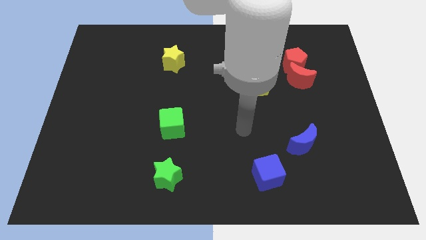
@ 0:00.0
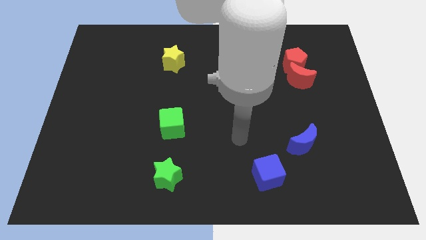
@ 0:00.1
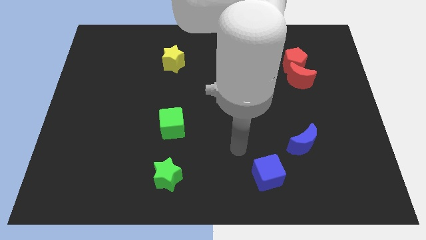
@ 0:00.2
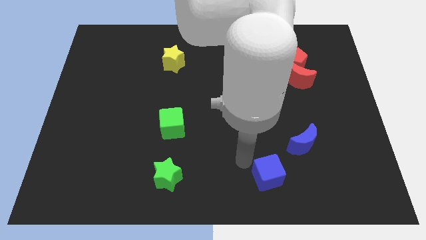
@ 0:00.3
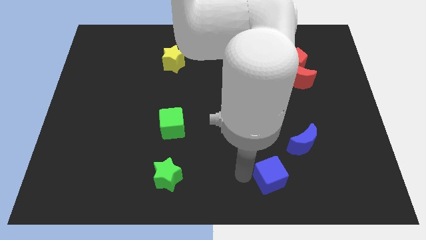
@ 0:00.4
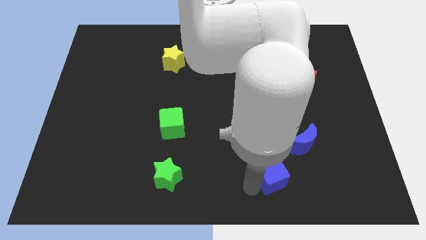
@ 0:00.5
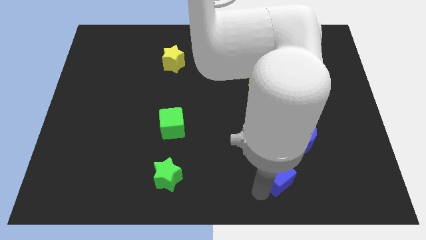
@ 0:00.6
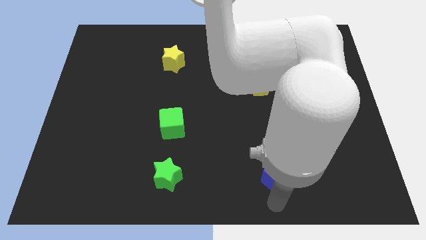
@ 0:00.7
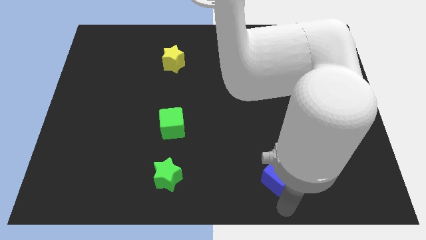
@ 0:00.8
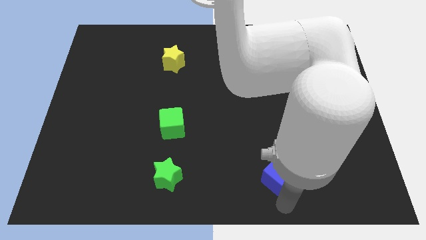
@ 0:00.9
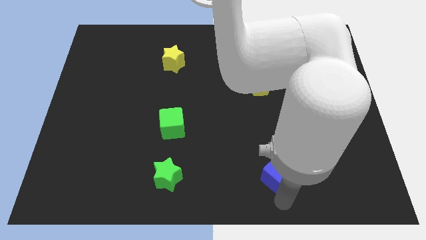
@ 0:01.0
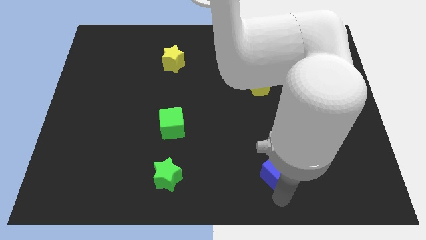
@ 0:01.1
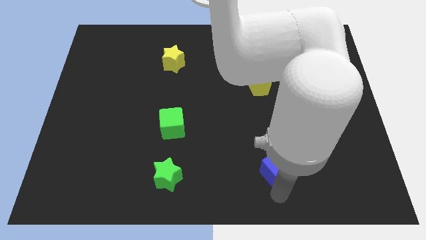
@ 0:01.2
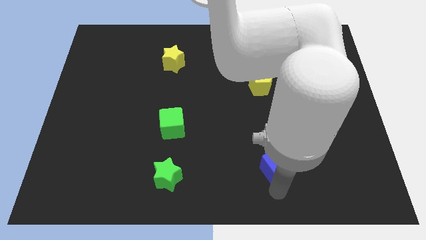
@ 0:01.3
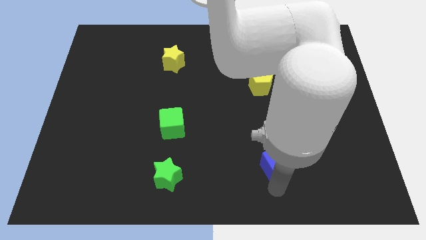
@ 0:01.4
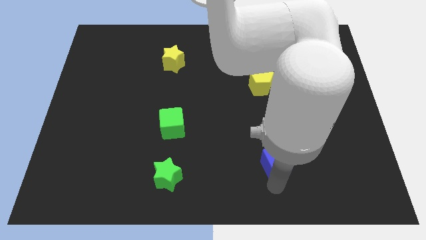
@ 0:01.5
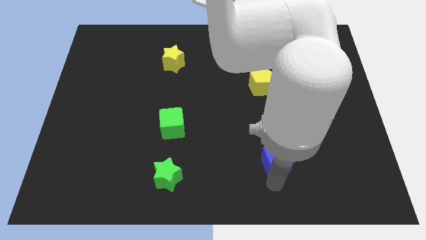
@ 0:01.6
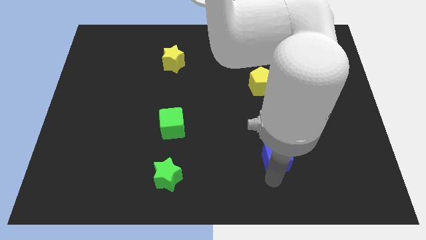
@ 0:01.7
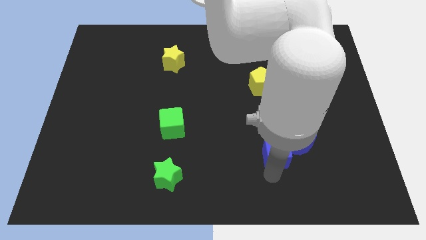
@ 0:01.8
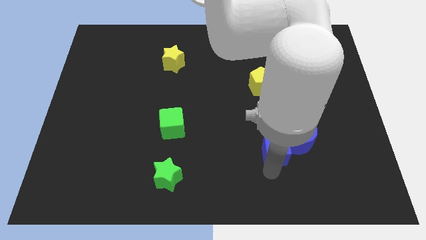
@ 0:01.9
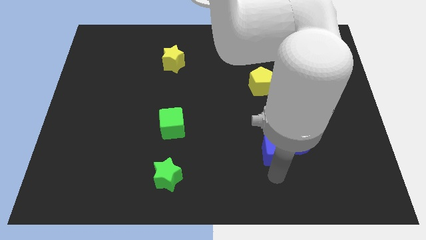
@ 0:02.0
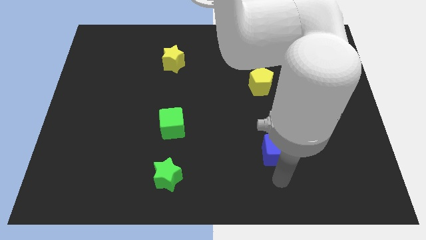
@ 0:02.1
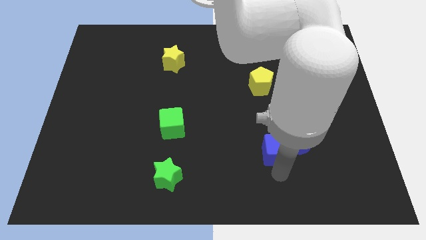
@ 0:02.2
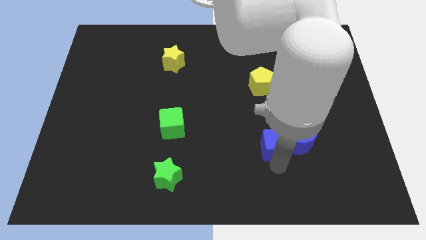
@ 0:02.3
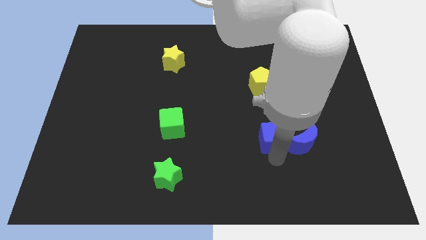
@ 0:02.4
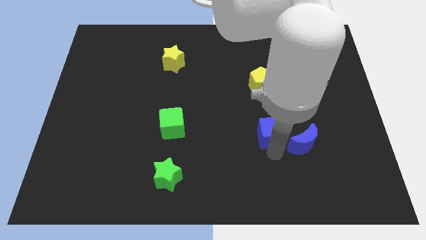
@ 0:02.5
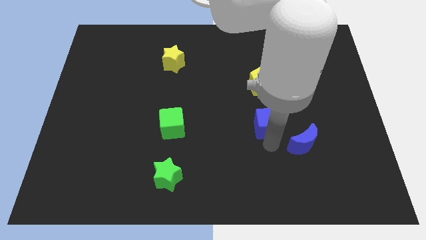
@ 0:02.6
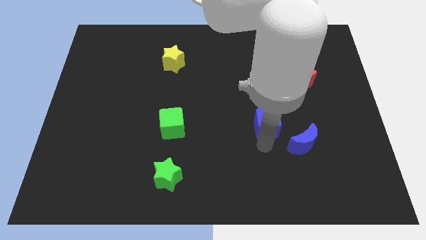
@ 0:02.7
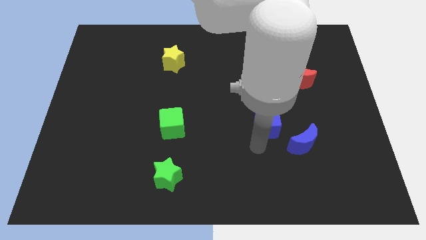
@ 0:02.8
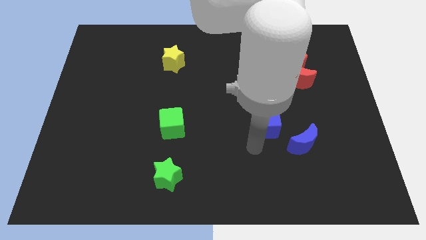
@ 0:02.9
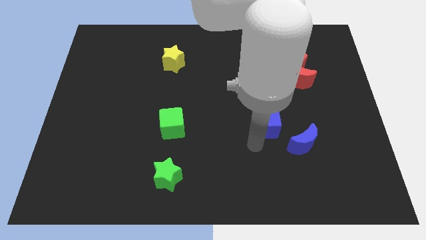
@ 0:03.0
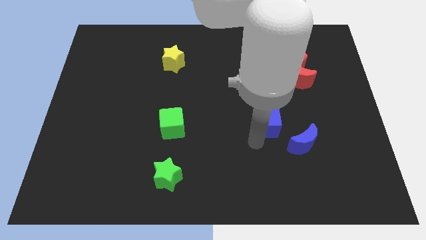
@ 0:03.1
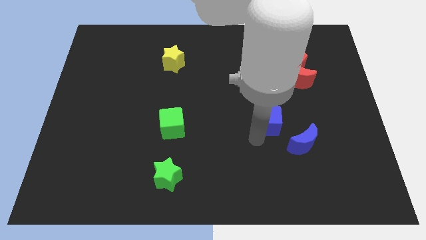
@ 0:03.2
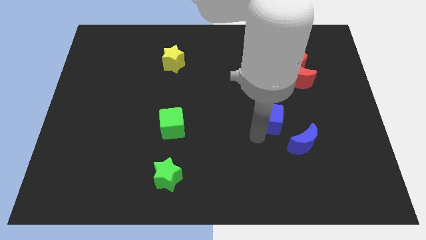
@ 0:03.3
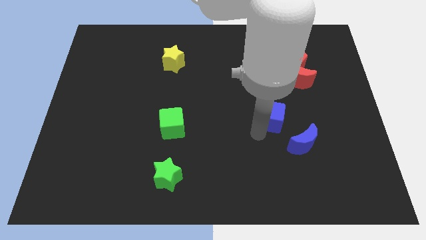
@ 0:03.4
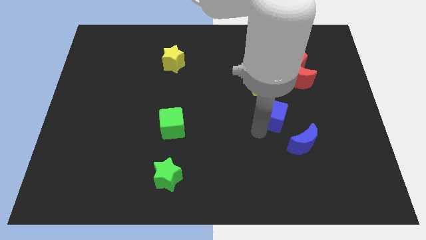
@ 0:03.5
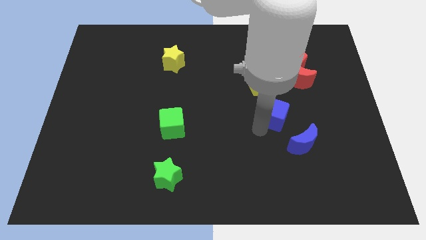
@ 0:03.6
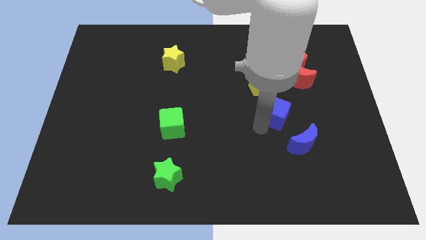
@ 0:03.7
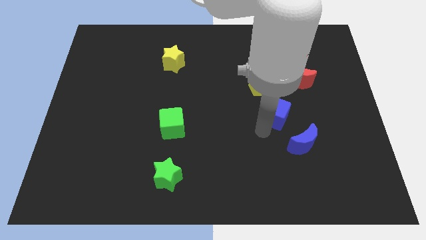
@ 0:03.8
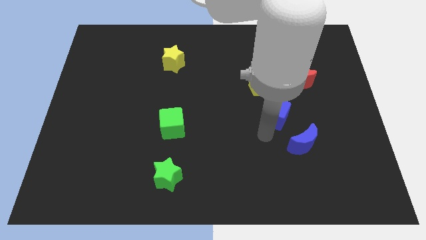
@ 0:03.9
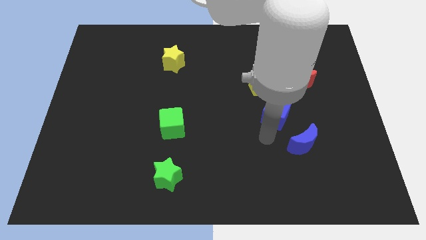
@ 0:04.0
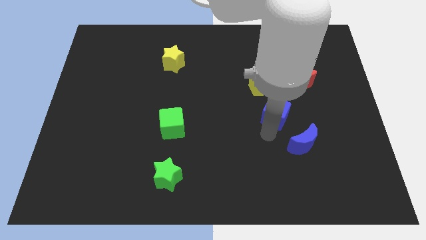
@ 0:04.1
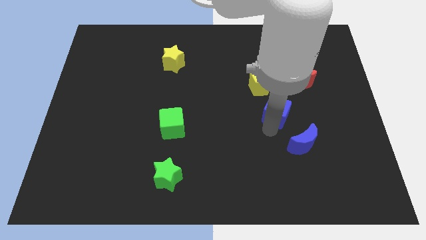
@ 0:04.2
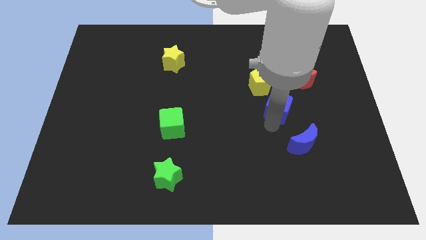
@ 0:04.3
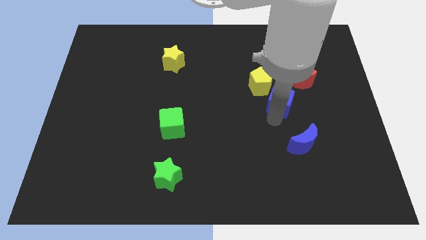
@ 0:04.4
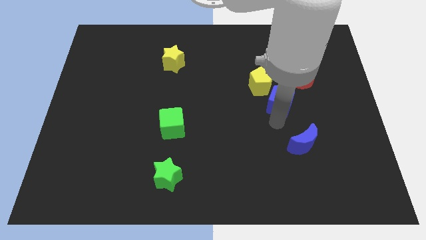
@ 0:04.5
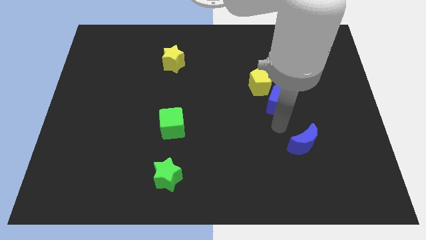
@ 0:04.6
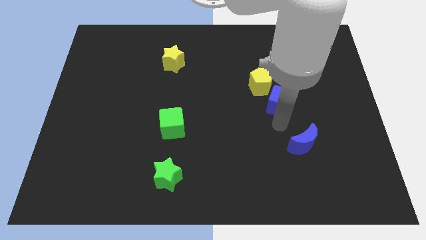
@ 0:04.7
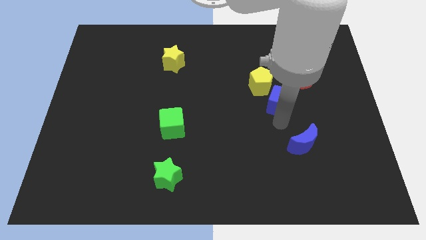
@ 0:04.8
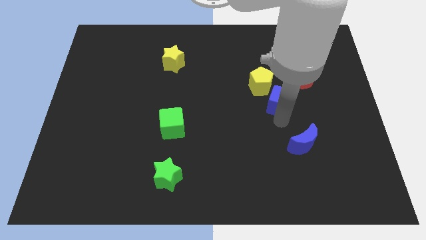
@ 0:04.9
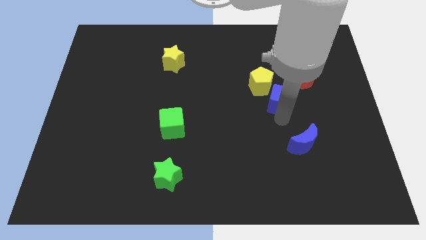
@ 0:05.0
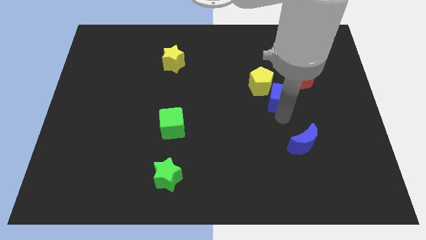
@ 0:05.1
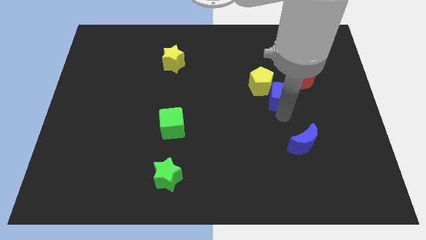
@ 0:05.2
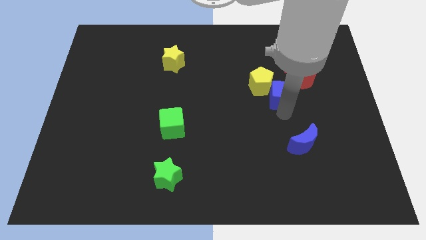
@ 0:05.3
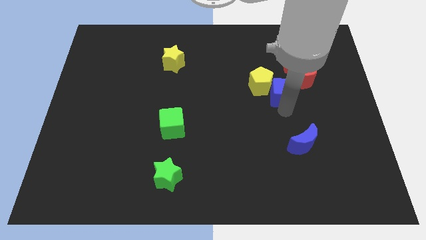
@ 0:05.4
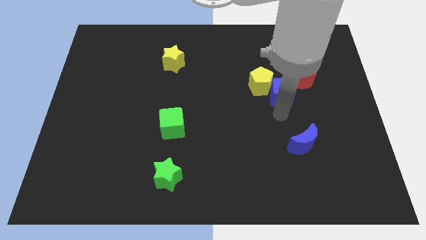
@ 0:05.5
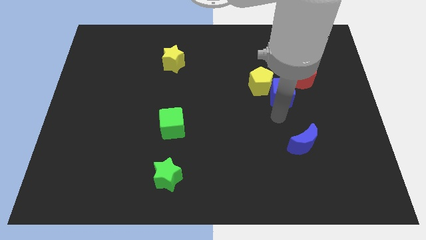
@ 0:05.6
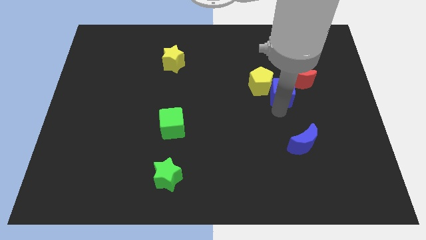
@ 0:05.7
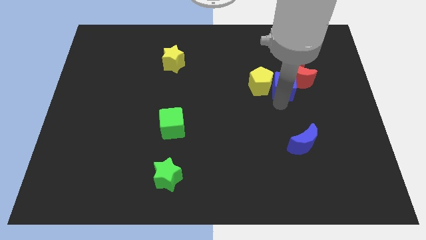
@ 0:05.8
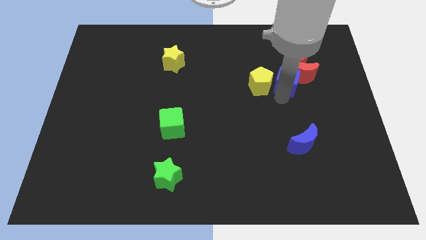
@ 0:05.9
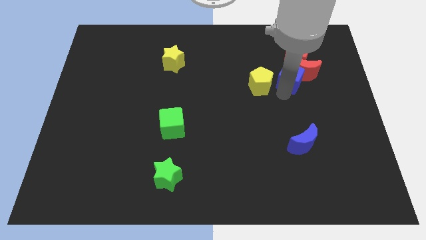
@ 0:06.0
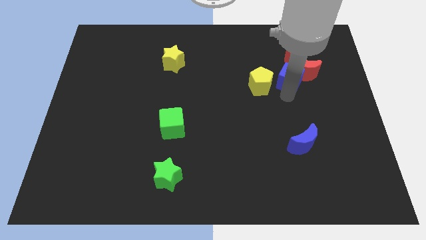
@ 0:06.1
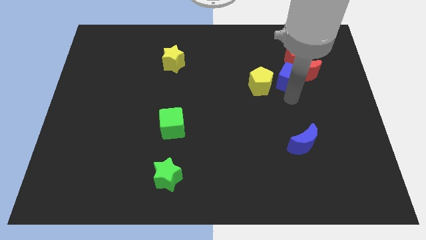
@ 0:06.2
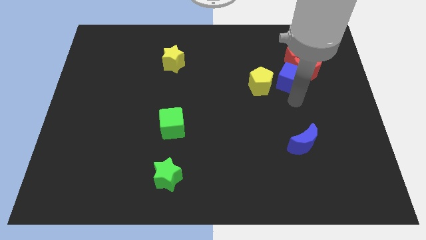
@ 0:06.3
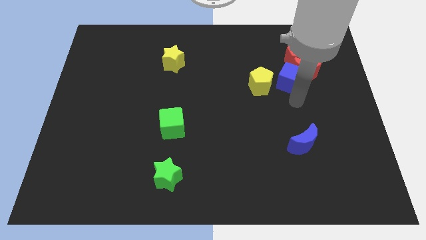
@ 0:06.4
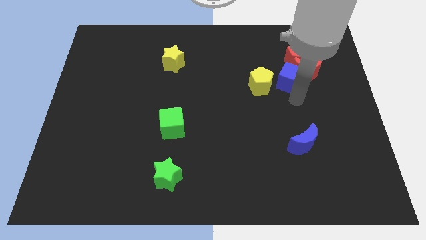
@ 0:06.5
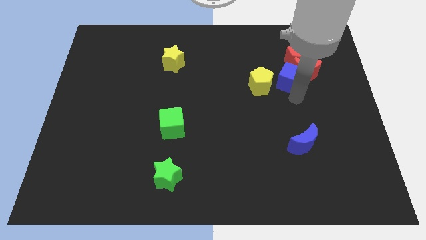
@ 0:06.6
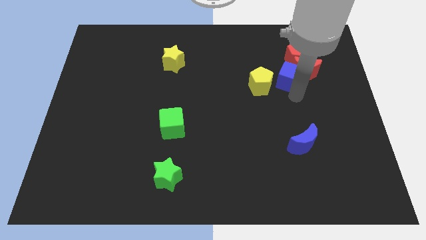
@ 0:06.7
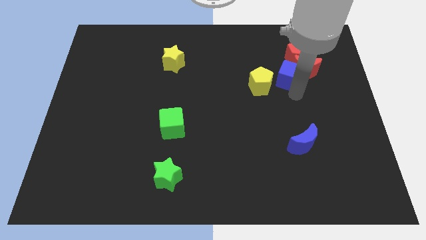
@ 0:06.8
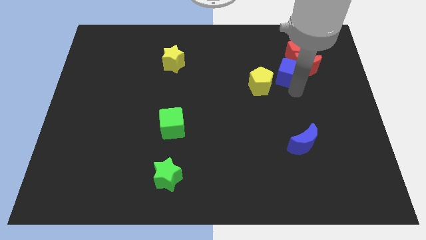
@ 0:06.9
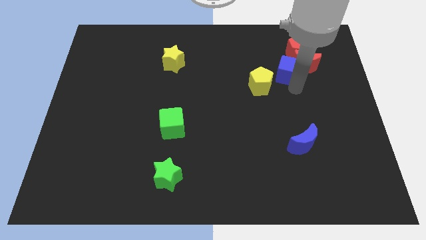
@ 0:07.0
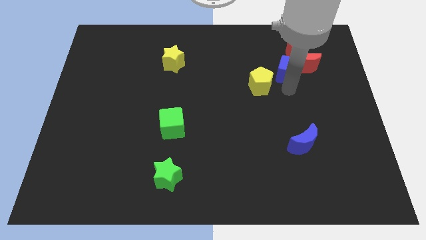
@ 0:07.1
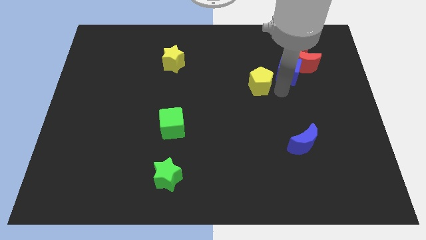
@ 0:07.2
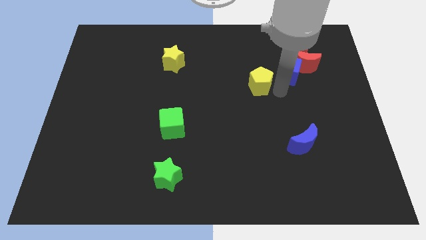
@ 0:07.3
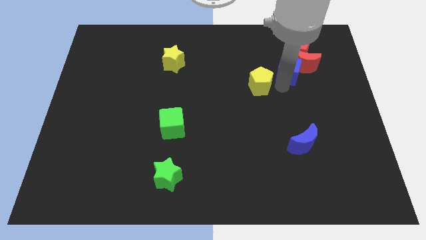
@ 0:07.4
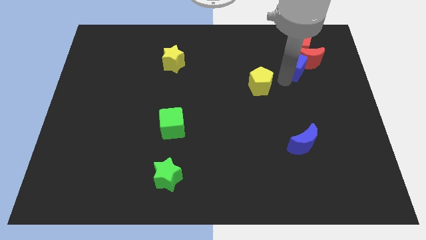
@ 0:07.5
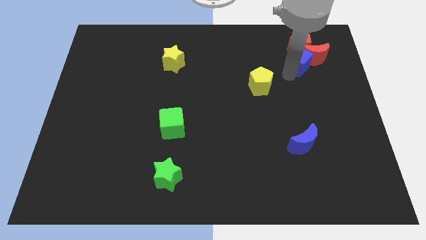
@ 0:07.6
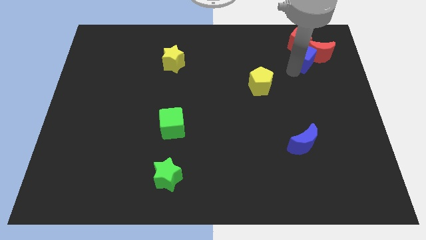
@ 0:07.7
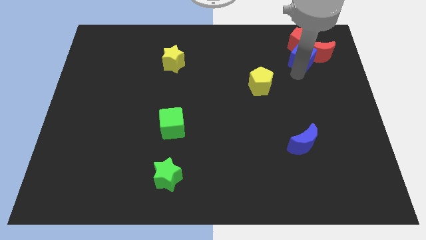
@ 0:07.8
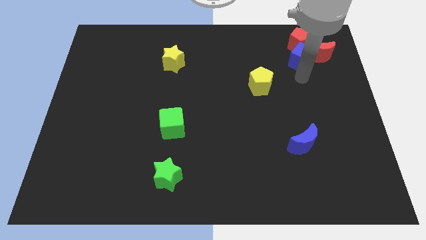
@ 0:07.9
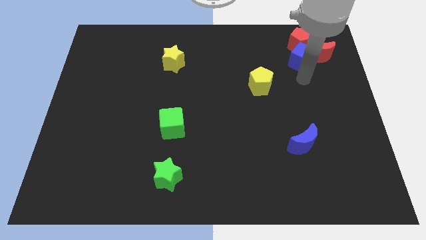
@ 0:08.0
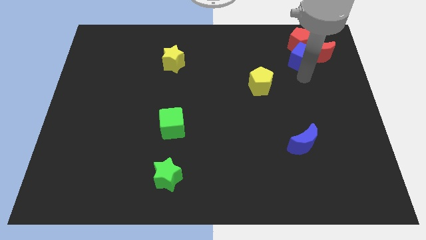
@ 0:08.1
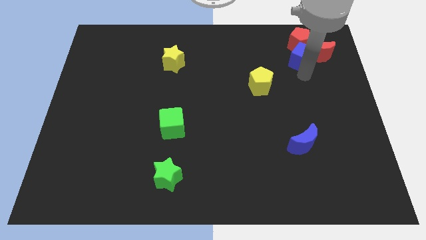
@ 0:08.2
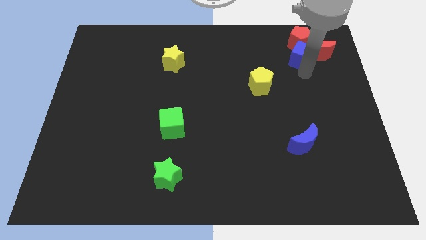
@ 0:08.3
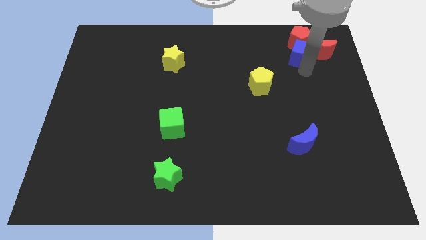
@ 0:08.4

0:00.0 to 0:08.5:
move the blue cube next to the red pentagon
